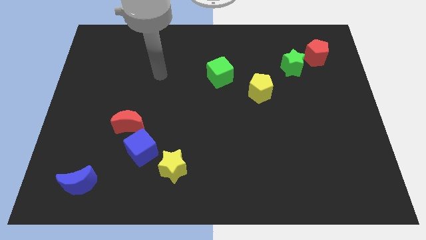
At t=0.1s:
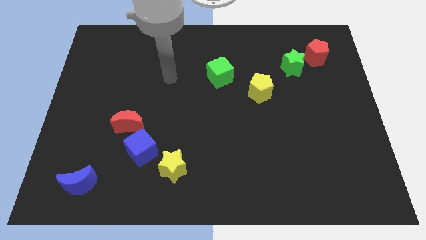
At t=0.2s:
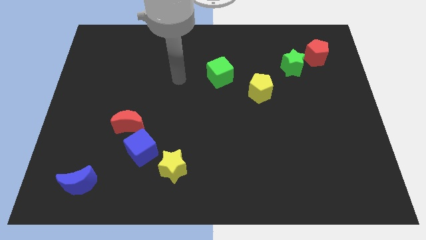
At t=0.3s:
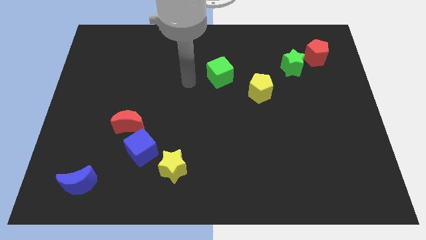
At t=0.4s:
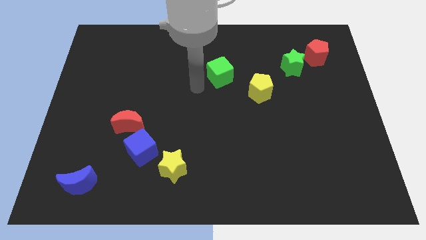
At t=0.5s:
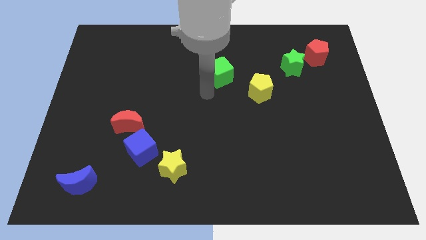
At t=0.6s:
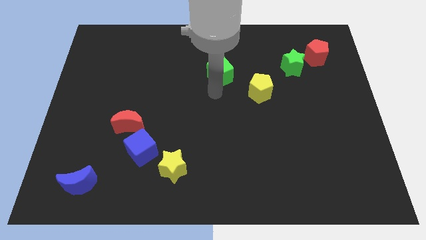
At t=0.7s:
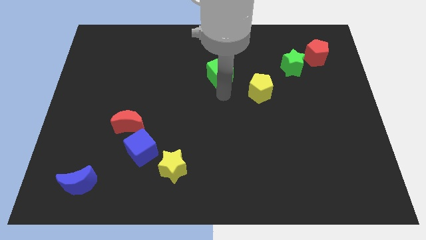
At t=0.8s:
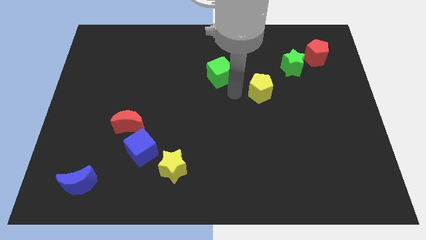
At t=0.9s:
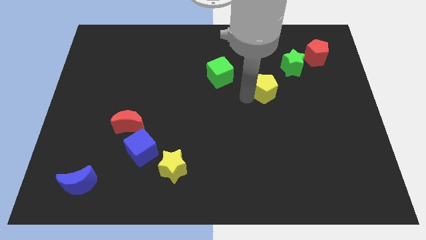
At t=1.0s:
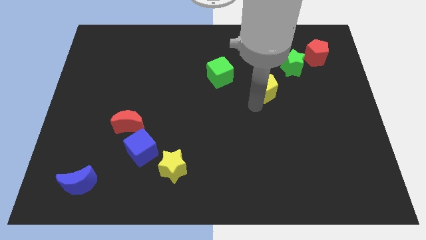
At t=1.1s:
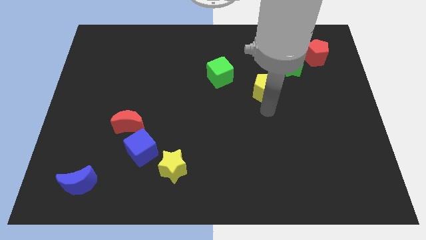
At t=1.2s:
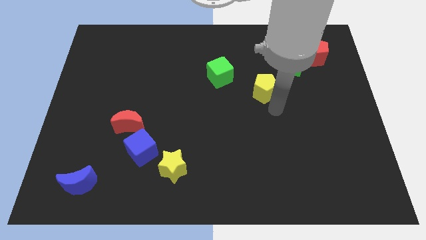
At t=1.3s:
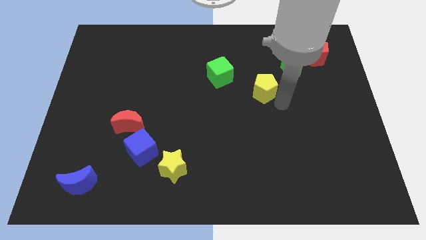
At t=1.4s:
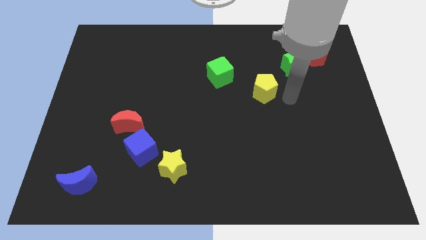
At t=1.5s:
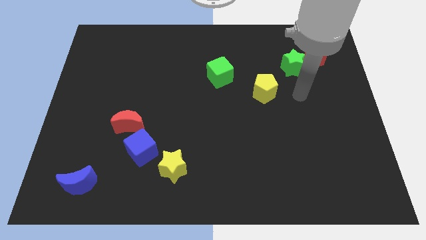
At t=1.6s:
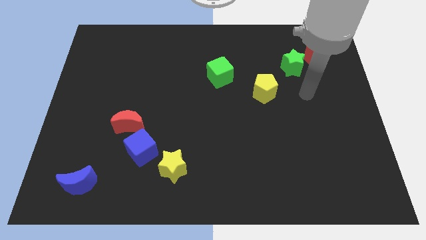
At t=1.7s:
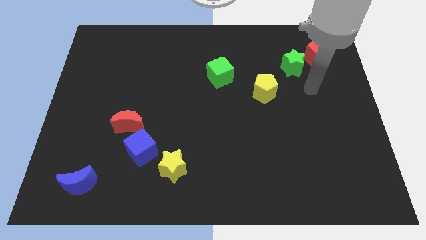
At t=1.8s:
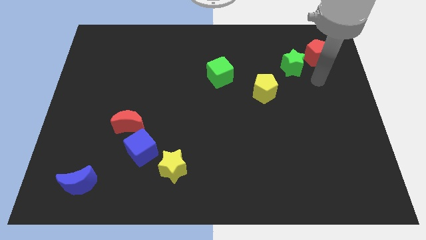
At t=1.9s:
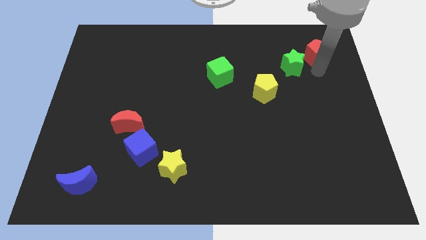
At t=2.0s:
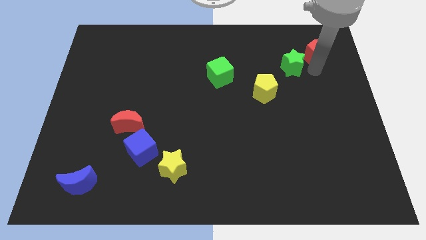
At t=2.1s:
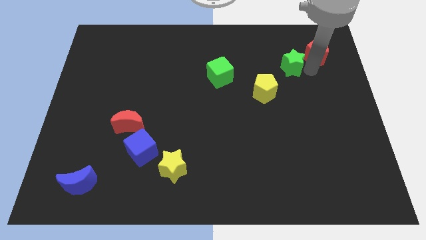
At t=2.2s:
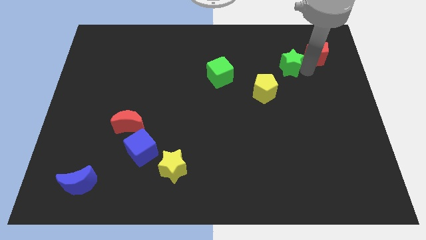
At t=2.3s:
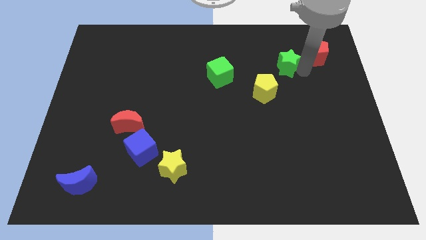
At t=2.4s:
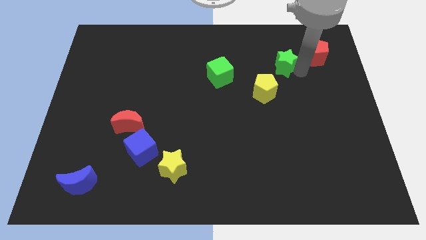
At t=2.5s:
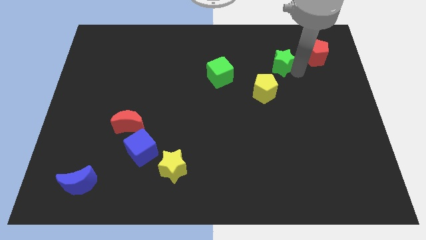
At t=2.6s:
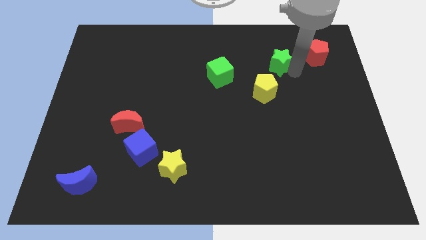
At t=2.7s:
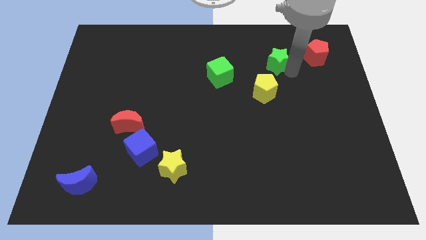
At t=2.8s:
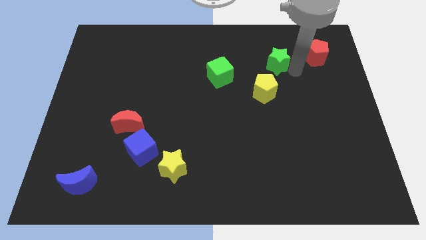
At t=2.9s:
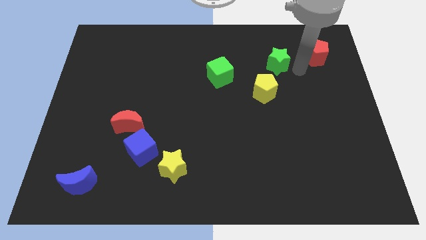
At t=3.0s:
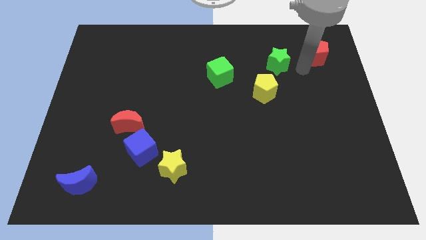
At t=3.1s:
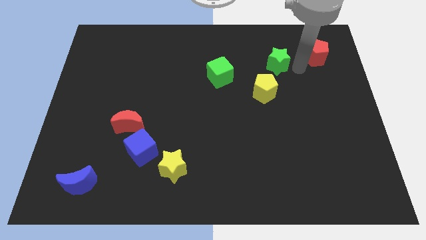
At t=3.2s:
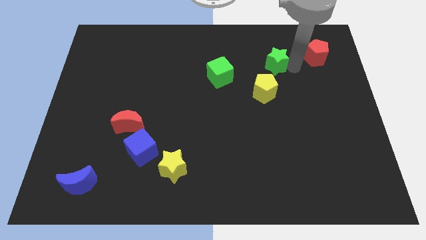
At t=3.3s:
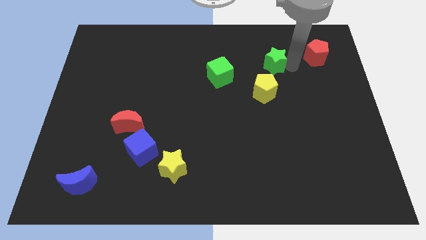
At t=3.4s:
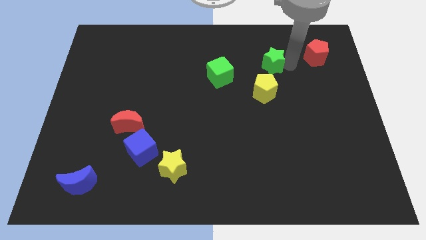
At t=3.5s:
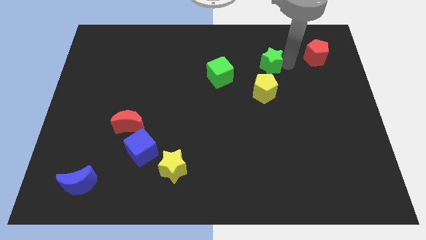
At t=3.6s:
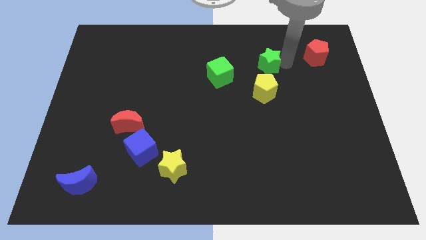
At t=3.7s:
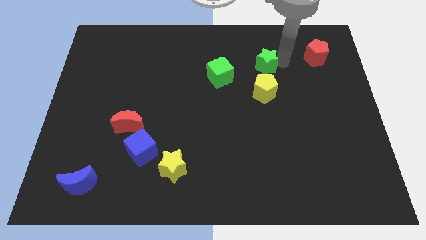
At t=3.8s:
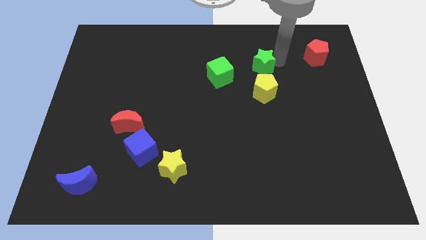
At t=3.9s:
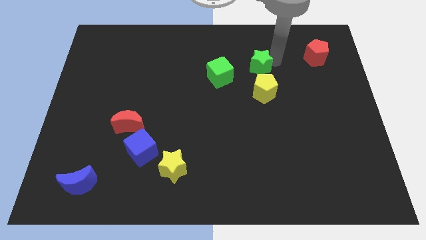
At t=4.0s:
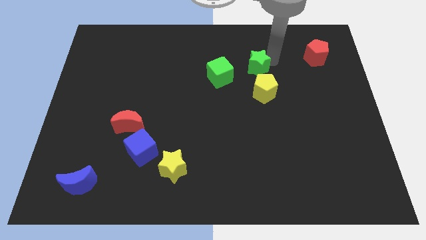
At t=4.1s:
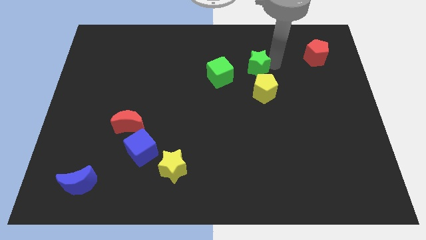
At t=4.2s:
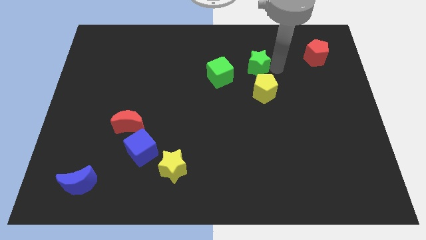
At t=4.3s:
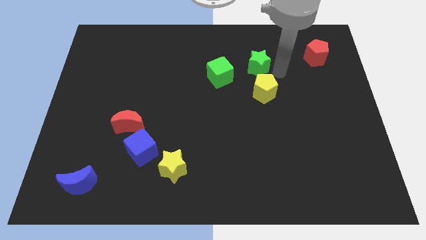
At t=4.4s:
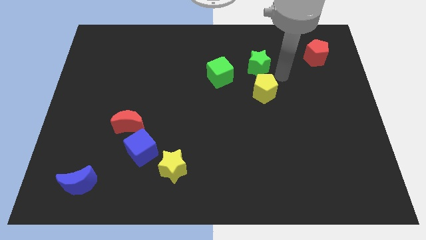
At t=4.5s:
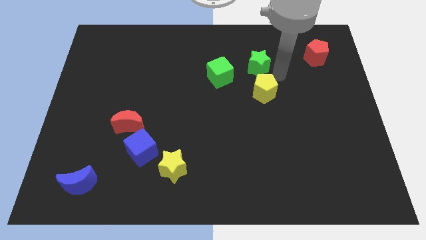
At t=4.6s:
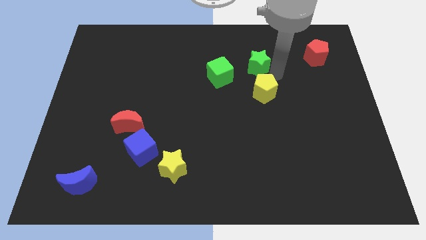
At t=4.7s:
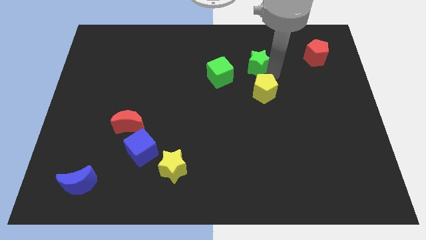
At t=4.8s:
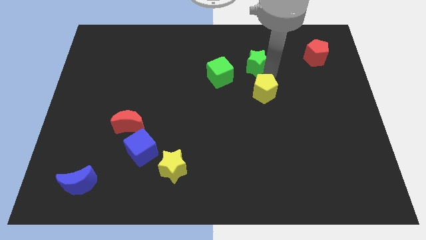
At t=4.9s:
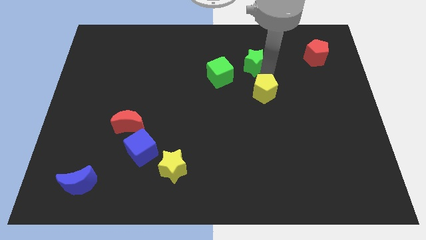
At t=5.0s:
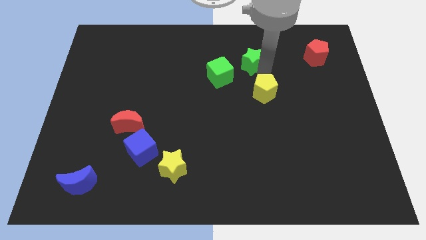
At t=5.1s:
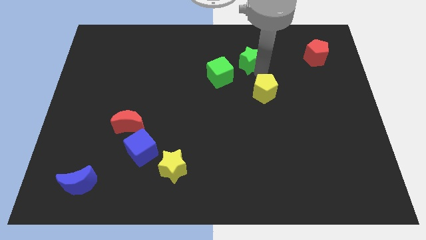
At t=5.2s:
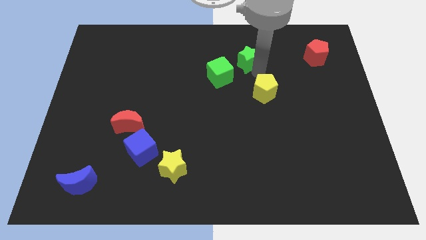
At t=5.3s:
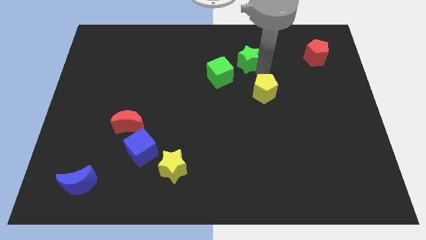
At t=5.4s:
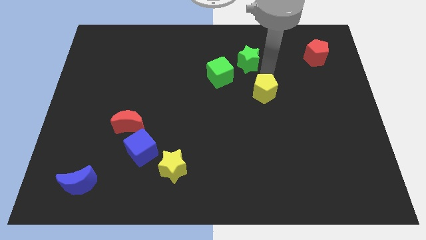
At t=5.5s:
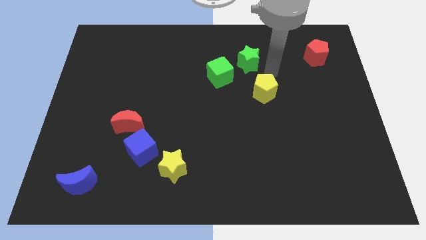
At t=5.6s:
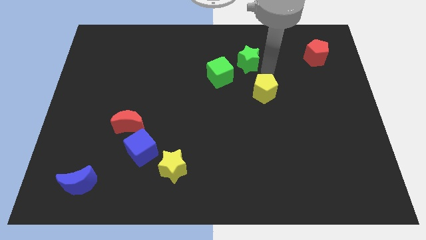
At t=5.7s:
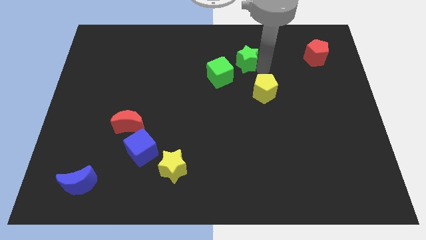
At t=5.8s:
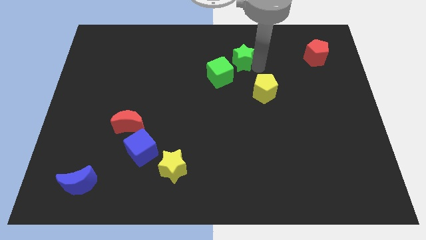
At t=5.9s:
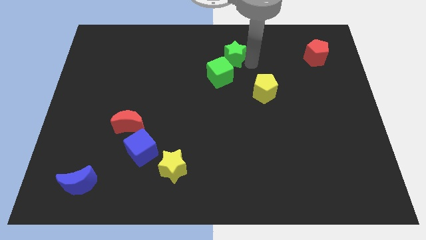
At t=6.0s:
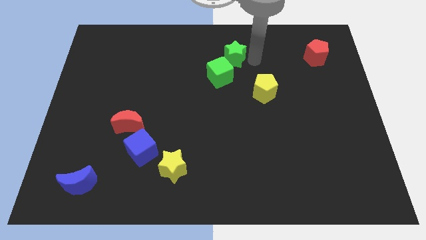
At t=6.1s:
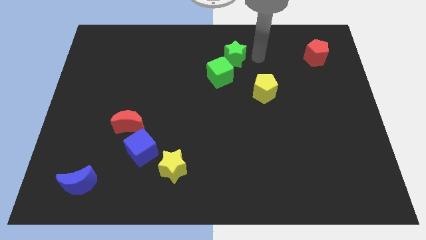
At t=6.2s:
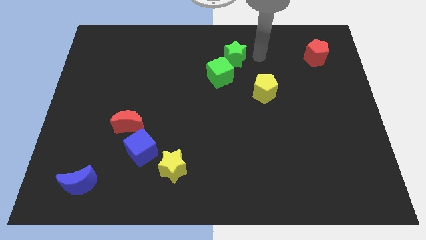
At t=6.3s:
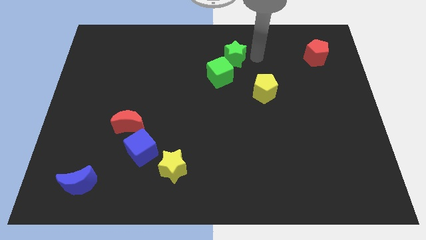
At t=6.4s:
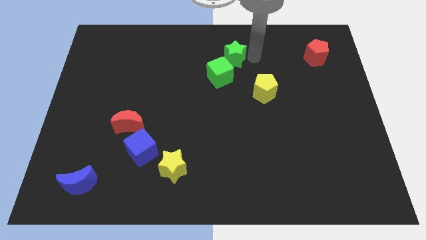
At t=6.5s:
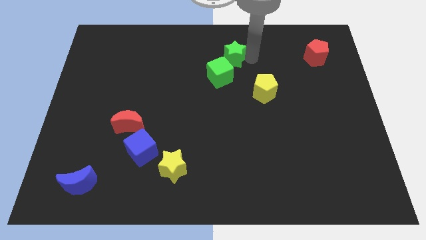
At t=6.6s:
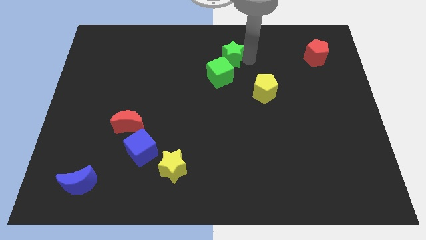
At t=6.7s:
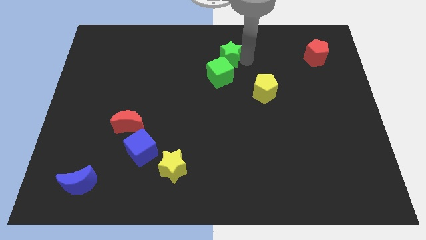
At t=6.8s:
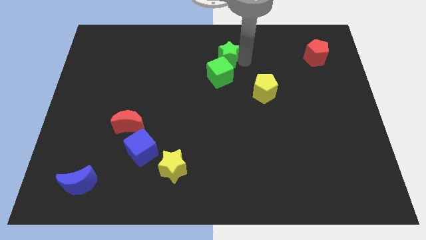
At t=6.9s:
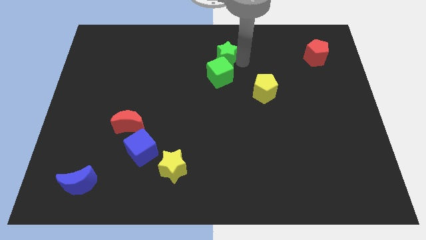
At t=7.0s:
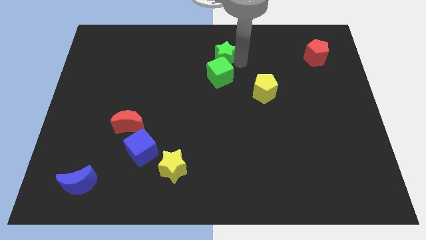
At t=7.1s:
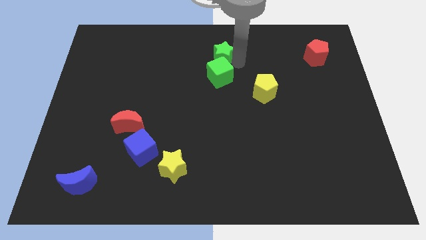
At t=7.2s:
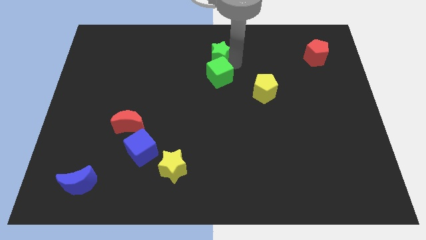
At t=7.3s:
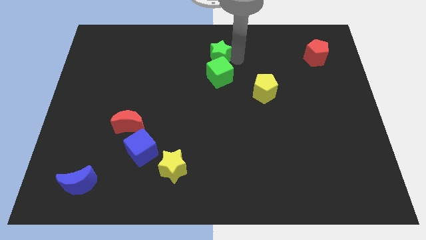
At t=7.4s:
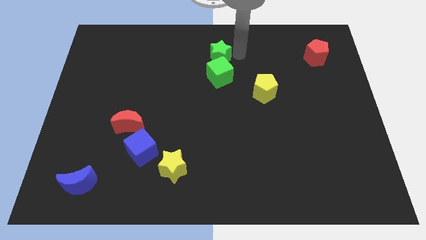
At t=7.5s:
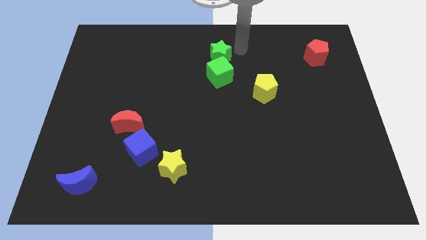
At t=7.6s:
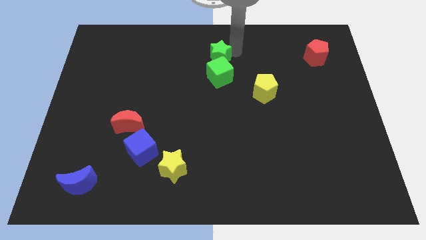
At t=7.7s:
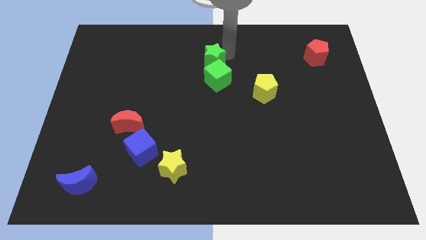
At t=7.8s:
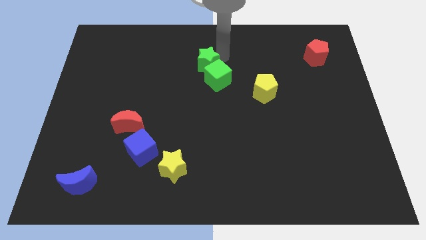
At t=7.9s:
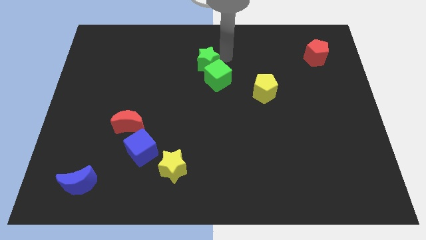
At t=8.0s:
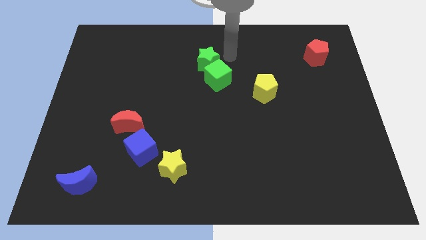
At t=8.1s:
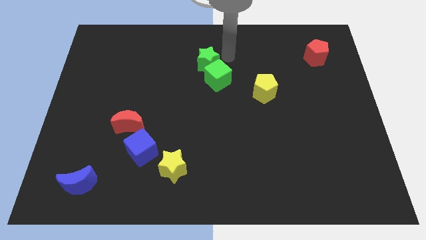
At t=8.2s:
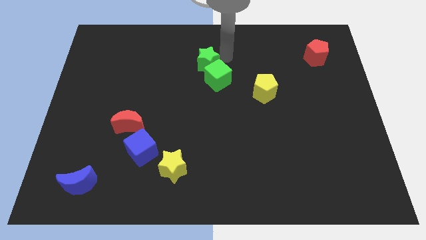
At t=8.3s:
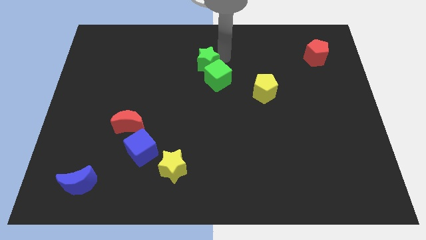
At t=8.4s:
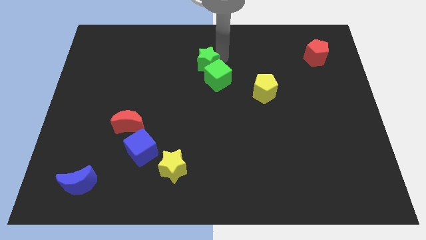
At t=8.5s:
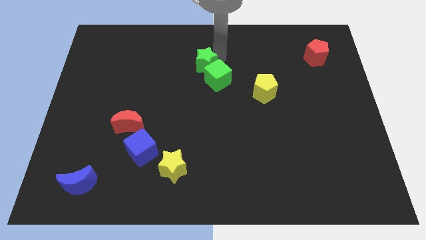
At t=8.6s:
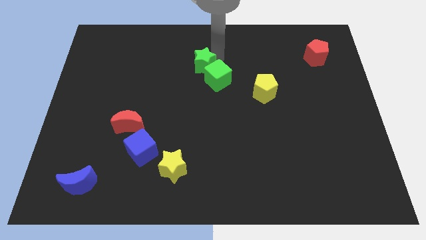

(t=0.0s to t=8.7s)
slide the green star to the left side of the green cube
